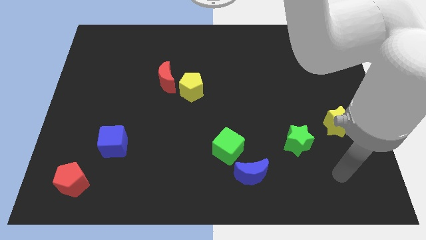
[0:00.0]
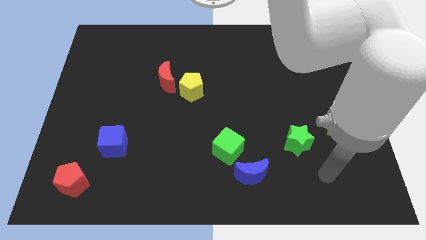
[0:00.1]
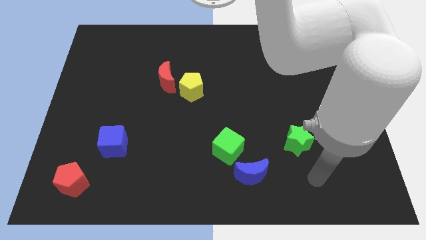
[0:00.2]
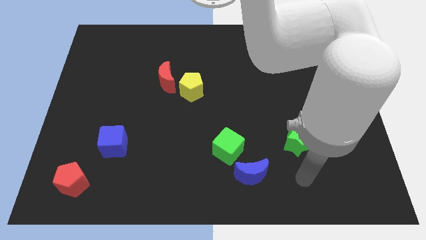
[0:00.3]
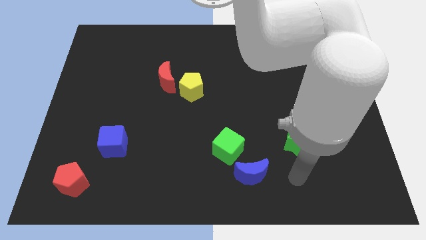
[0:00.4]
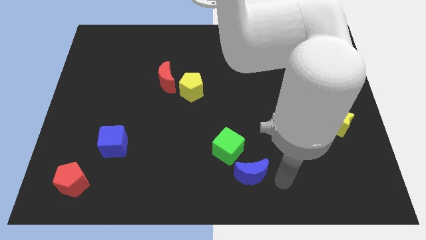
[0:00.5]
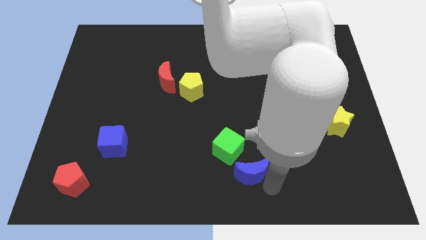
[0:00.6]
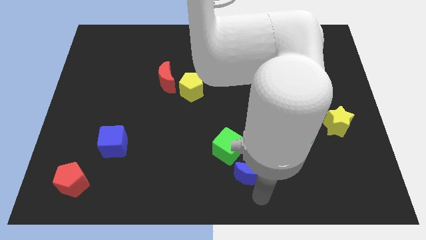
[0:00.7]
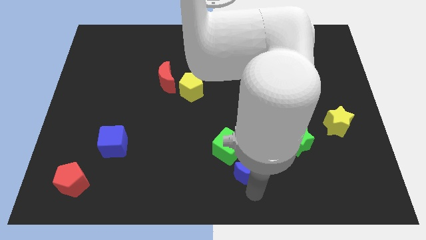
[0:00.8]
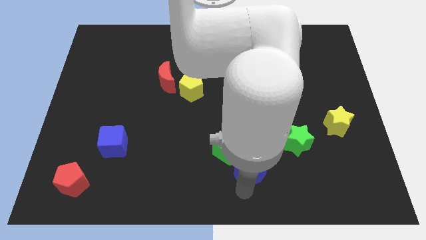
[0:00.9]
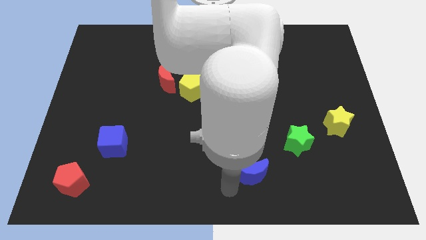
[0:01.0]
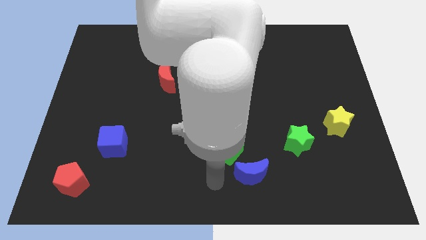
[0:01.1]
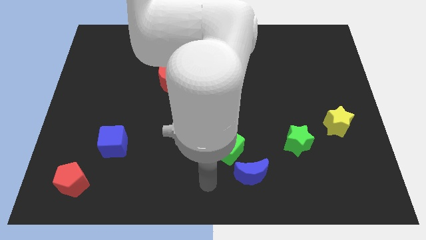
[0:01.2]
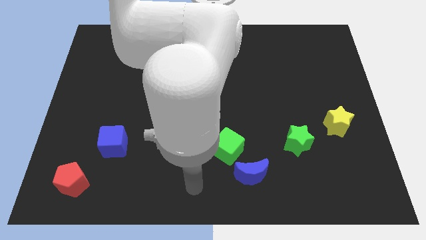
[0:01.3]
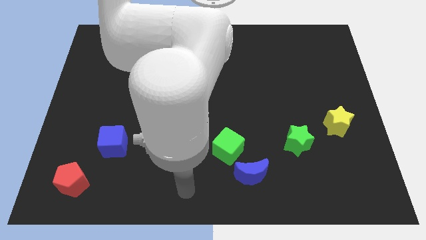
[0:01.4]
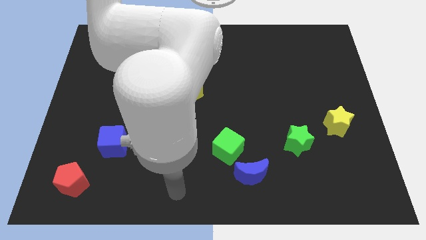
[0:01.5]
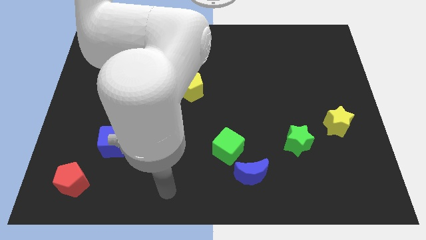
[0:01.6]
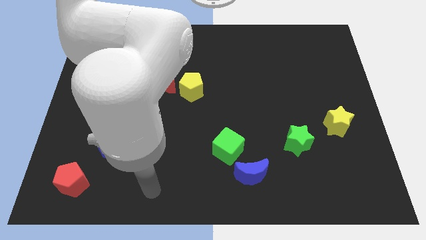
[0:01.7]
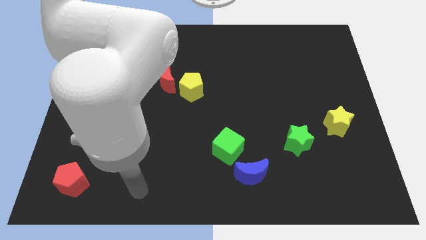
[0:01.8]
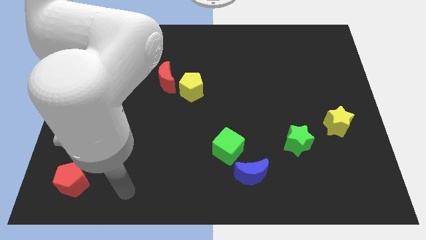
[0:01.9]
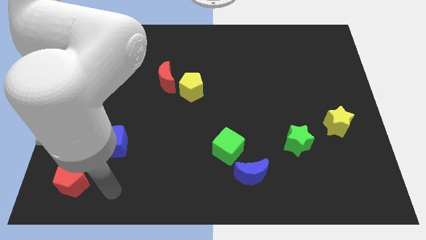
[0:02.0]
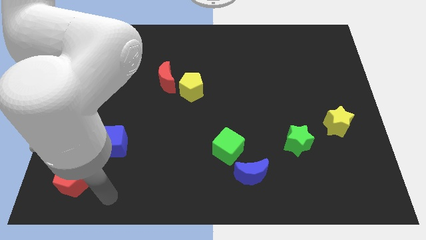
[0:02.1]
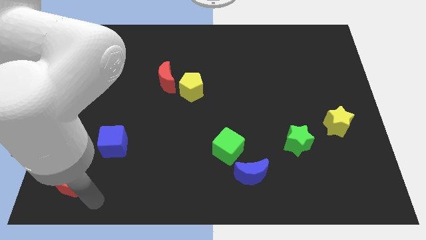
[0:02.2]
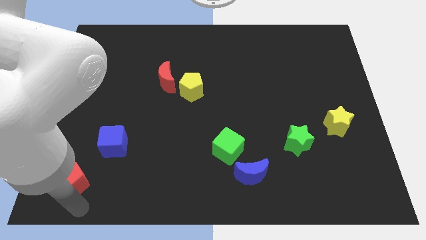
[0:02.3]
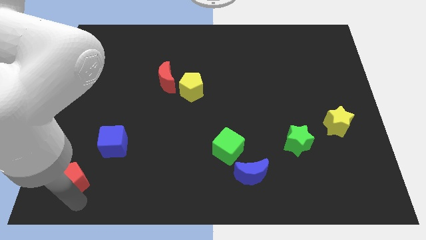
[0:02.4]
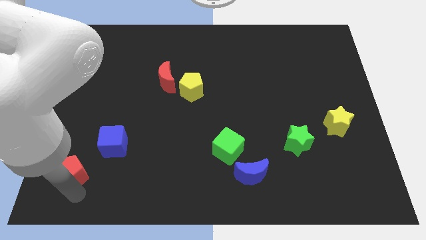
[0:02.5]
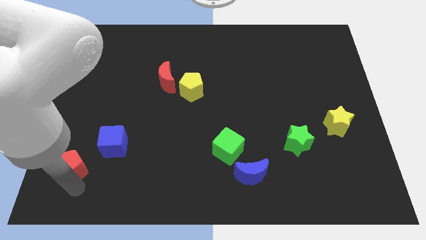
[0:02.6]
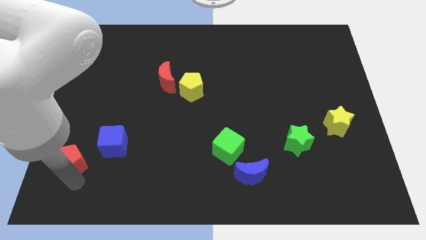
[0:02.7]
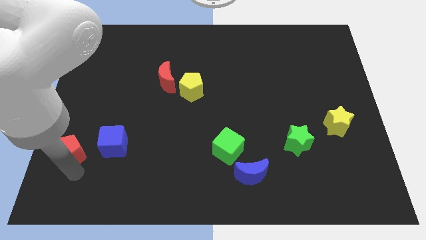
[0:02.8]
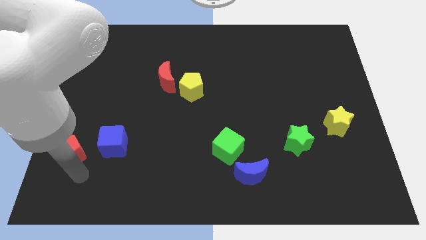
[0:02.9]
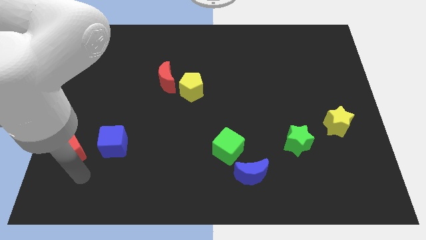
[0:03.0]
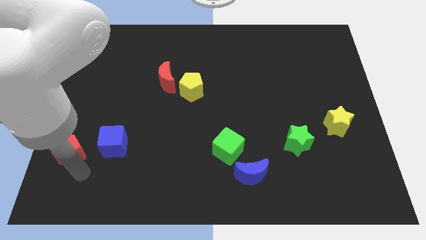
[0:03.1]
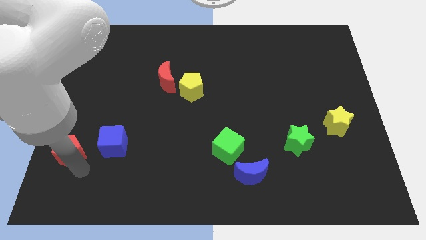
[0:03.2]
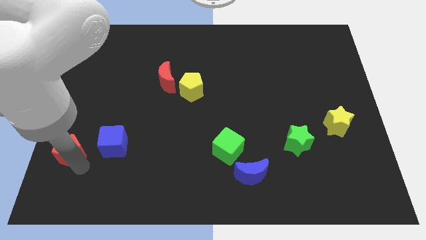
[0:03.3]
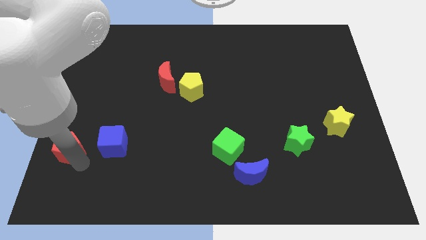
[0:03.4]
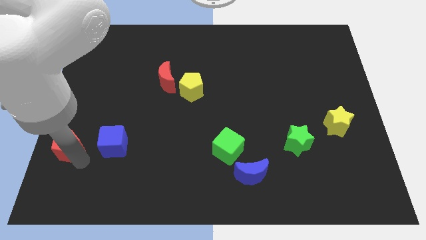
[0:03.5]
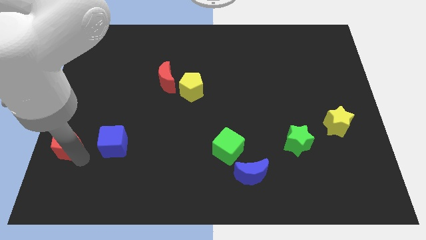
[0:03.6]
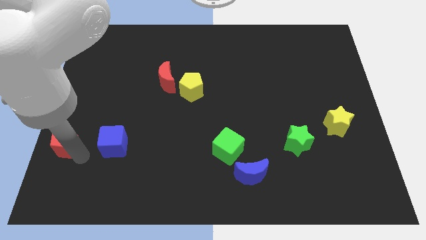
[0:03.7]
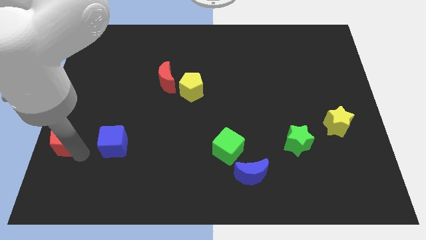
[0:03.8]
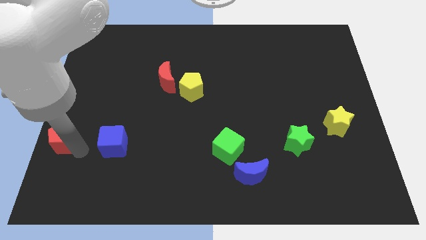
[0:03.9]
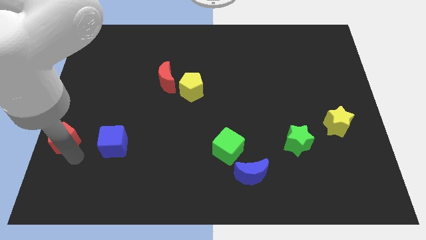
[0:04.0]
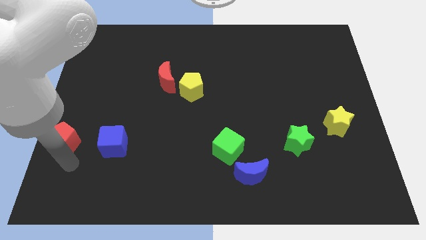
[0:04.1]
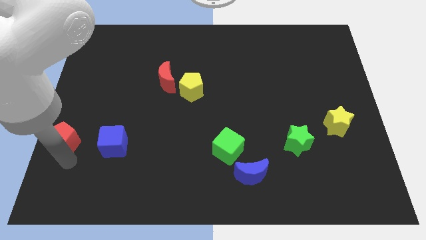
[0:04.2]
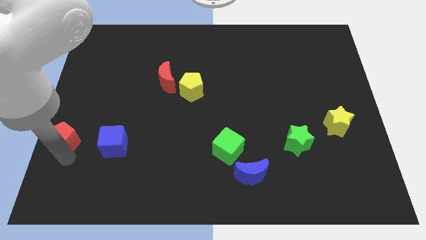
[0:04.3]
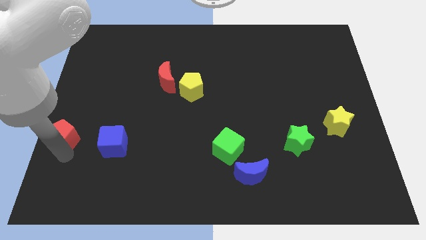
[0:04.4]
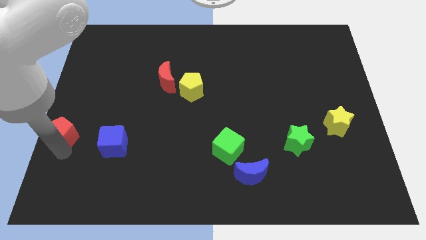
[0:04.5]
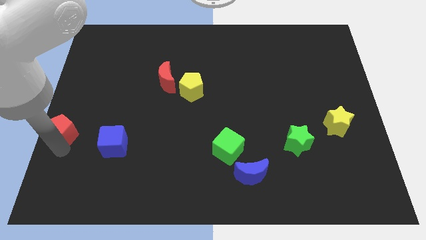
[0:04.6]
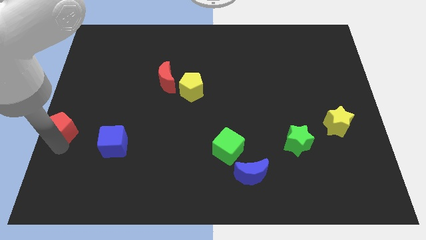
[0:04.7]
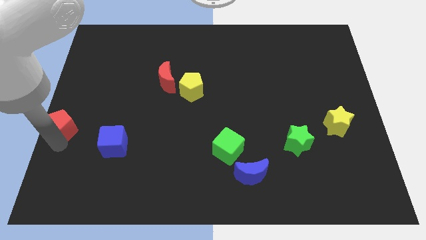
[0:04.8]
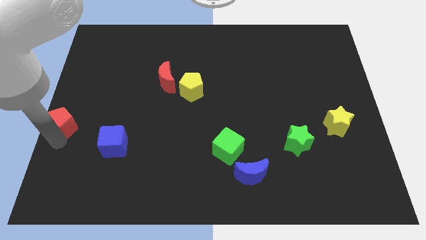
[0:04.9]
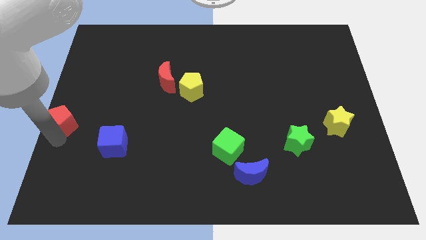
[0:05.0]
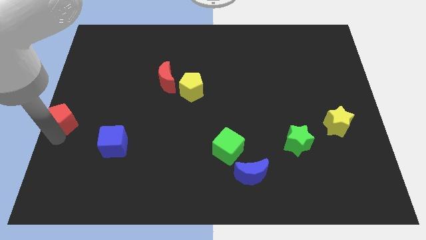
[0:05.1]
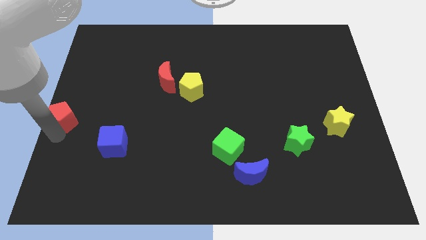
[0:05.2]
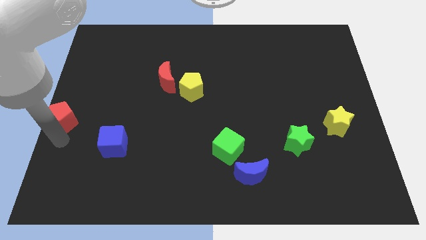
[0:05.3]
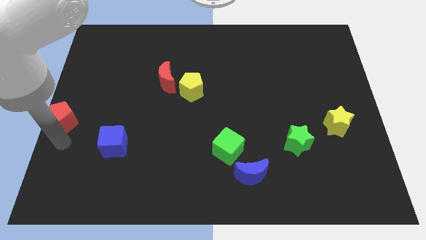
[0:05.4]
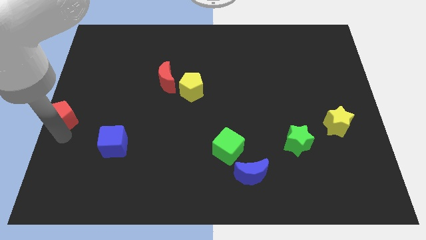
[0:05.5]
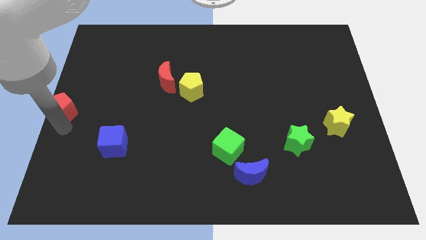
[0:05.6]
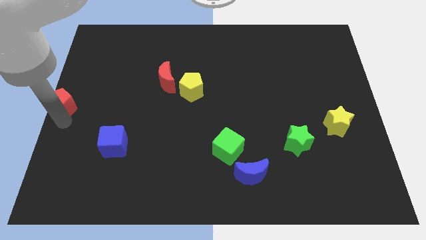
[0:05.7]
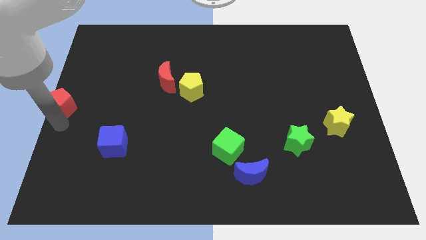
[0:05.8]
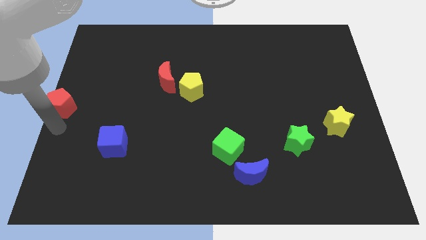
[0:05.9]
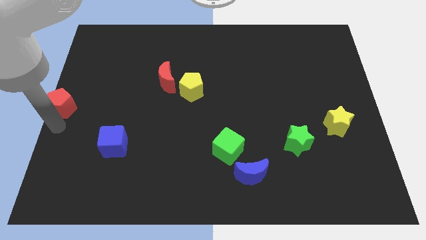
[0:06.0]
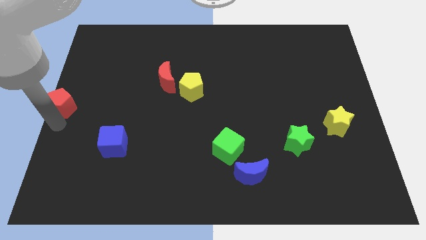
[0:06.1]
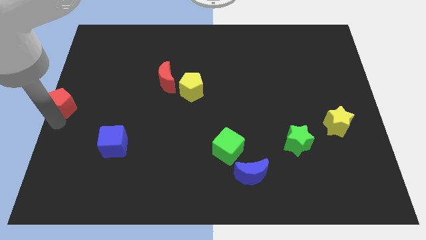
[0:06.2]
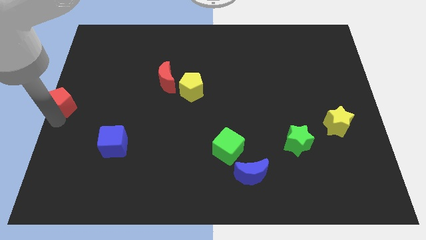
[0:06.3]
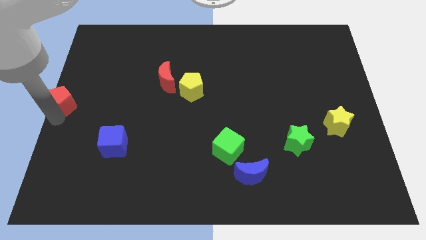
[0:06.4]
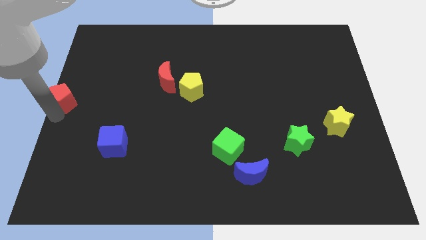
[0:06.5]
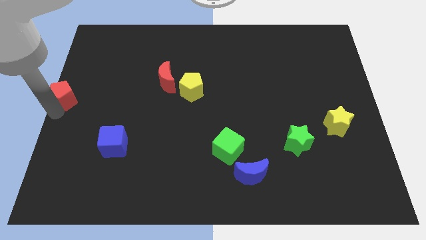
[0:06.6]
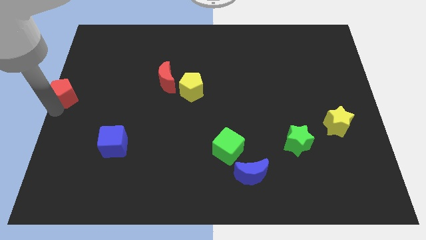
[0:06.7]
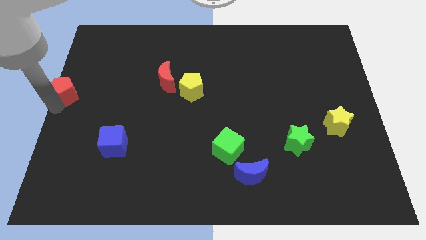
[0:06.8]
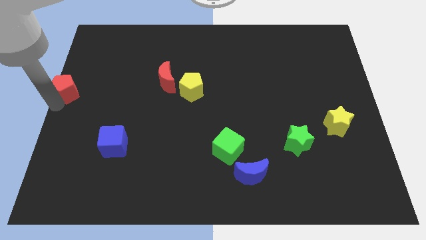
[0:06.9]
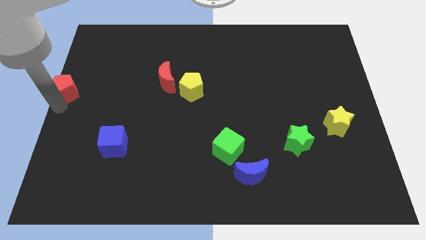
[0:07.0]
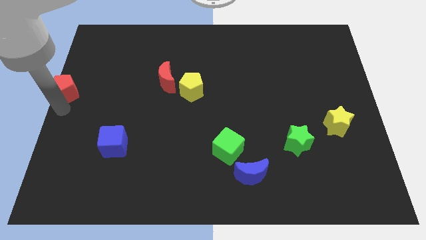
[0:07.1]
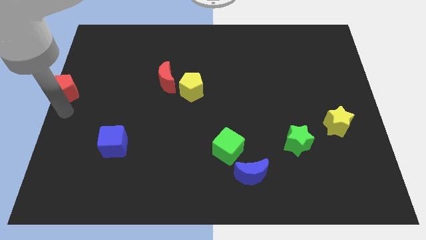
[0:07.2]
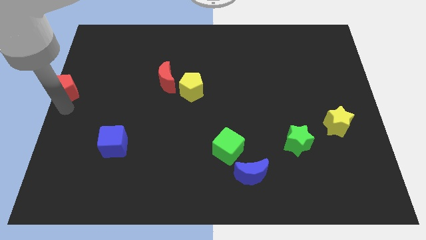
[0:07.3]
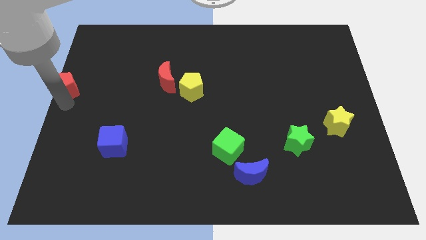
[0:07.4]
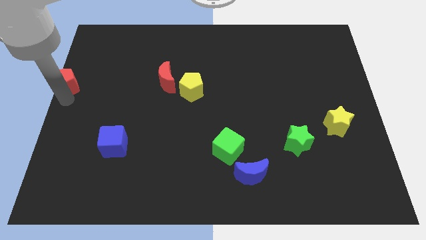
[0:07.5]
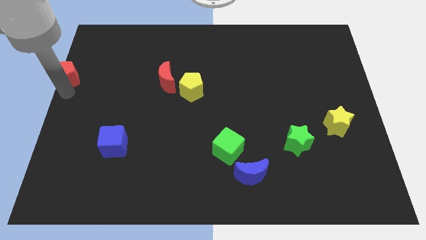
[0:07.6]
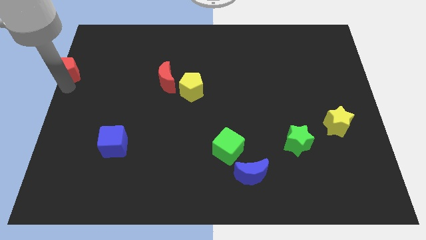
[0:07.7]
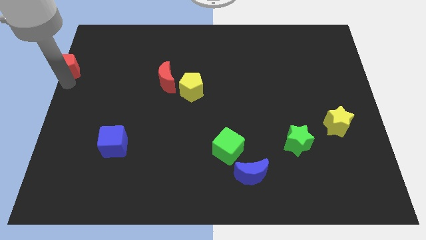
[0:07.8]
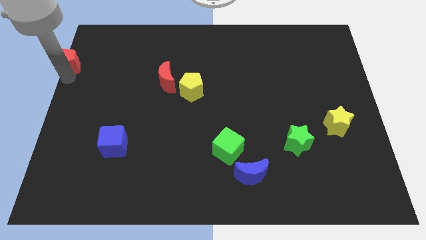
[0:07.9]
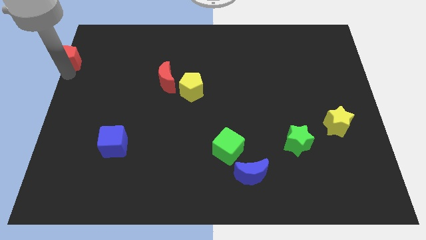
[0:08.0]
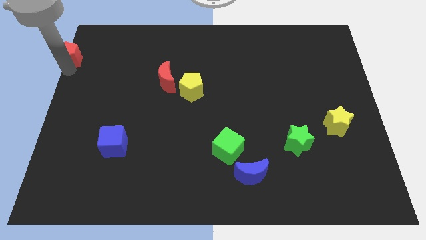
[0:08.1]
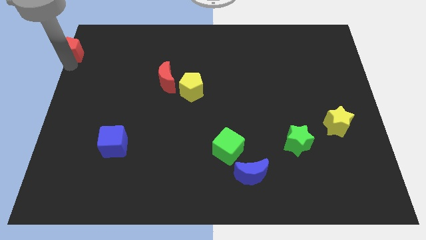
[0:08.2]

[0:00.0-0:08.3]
push the red pentagon to the top left
